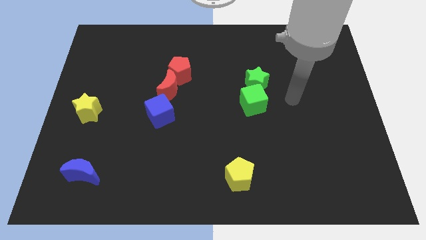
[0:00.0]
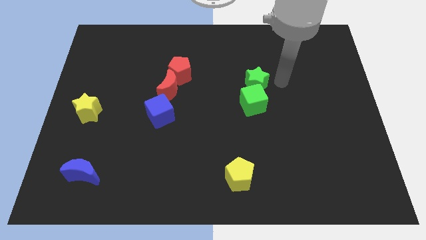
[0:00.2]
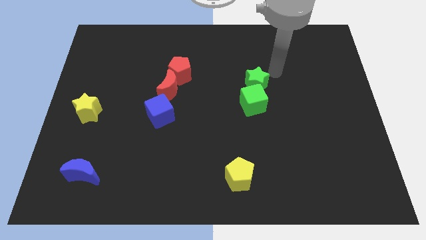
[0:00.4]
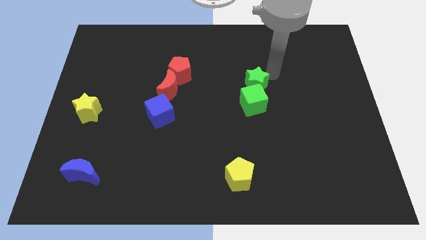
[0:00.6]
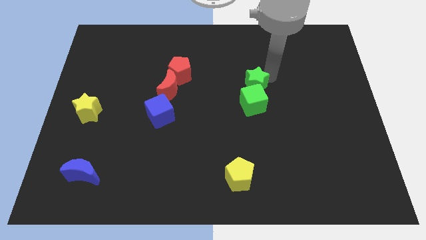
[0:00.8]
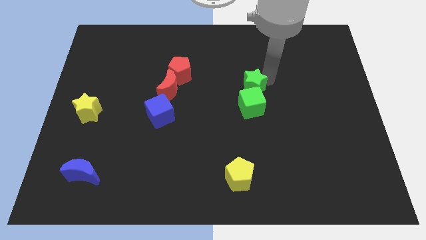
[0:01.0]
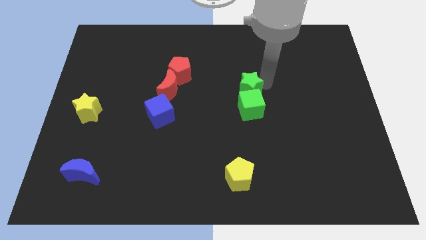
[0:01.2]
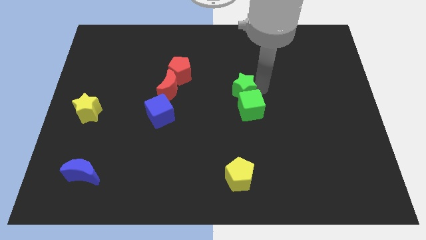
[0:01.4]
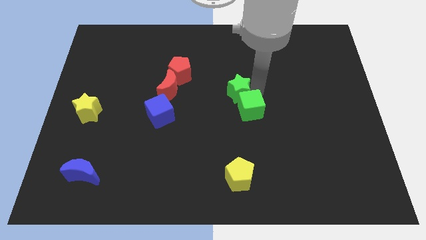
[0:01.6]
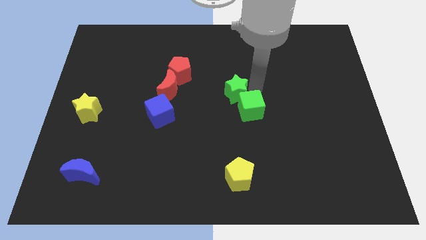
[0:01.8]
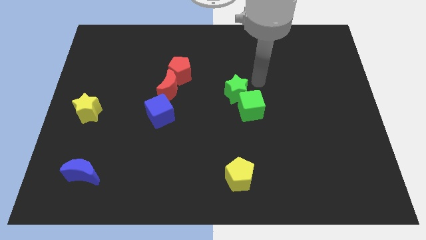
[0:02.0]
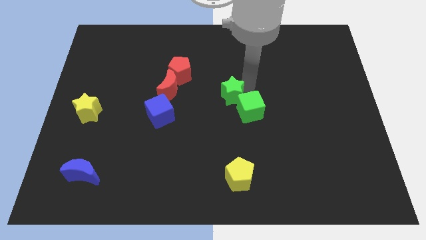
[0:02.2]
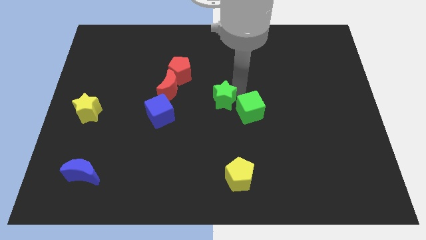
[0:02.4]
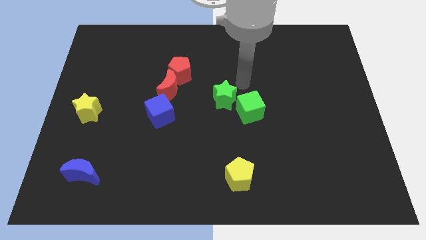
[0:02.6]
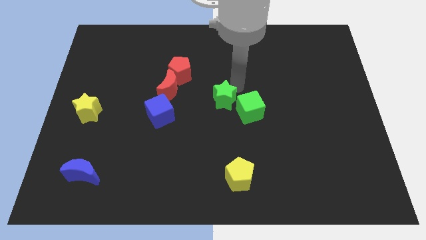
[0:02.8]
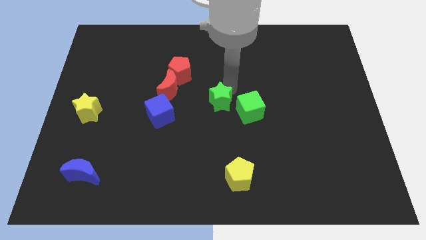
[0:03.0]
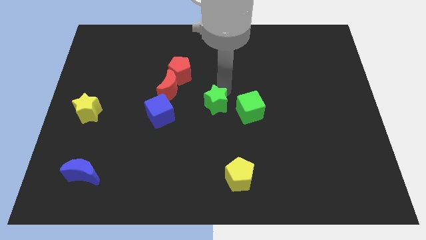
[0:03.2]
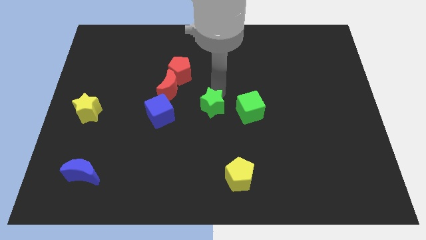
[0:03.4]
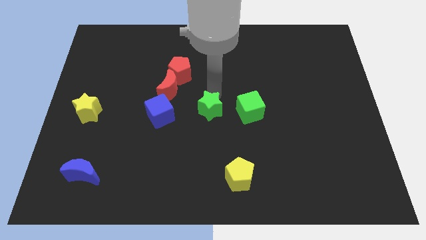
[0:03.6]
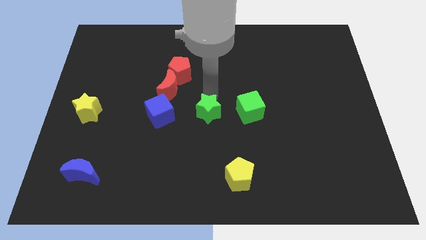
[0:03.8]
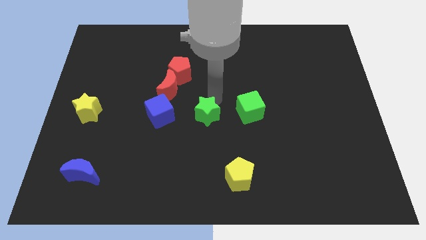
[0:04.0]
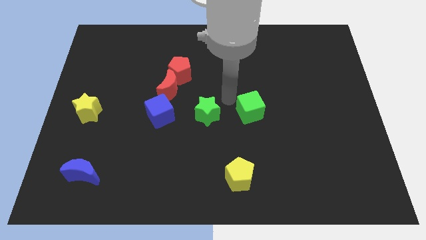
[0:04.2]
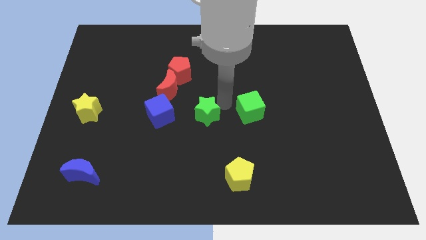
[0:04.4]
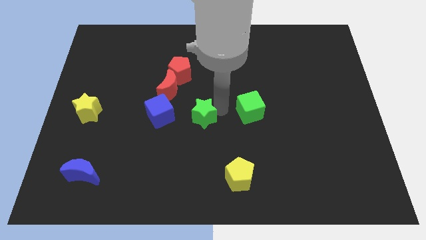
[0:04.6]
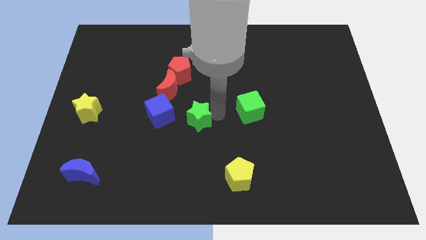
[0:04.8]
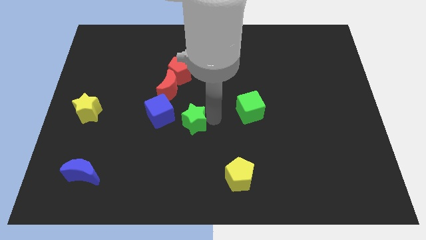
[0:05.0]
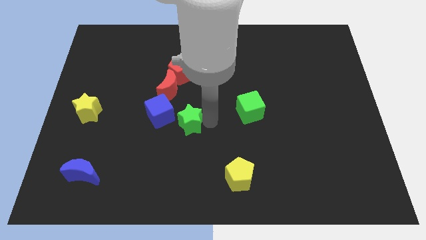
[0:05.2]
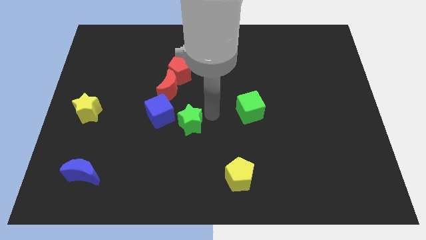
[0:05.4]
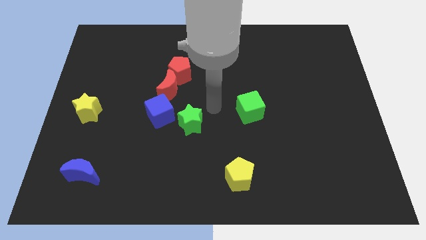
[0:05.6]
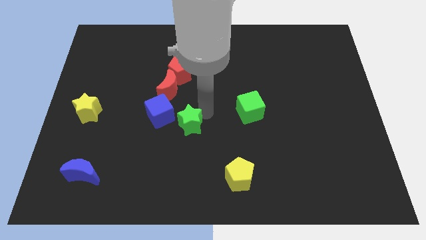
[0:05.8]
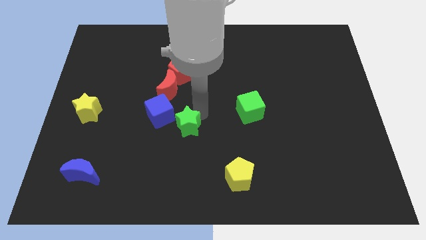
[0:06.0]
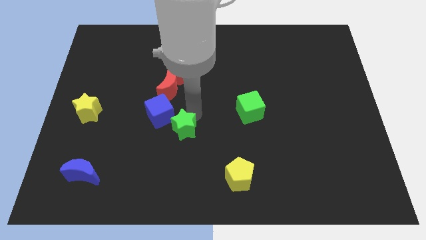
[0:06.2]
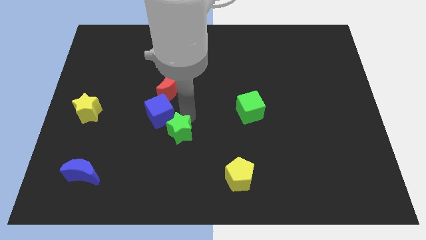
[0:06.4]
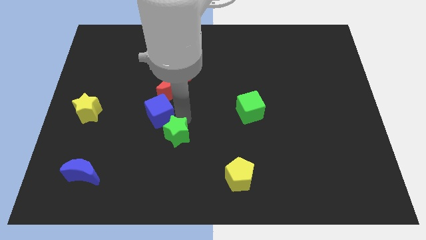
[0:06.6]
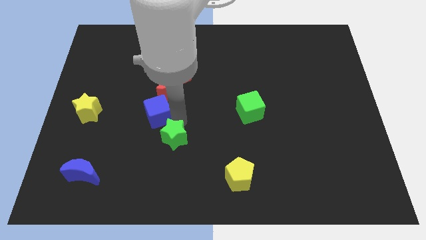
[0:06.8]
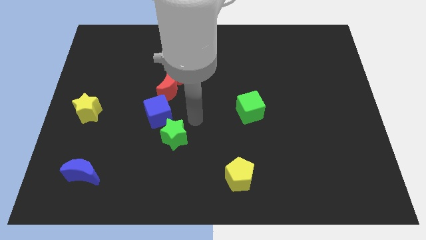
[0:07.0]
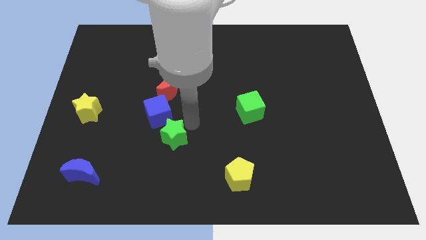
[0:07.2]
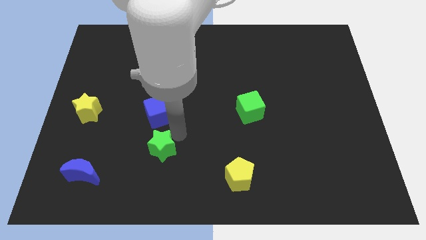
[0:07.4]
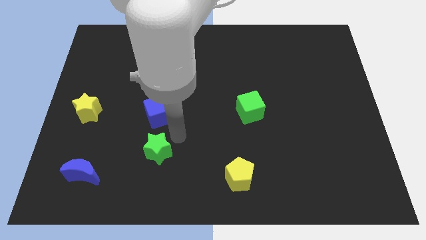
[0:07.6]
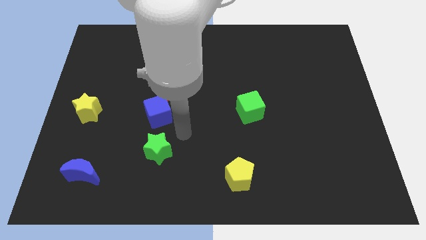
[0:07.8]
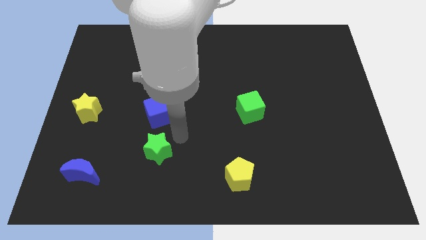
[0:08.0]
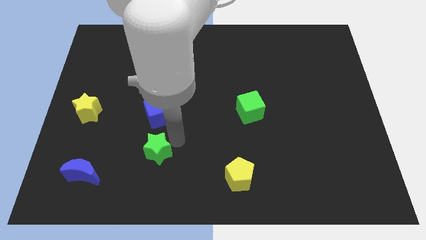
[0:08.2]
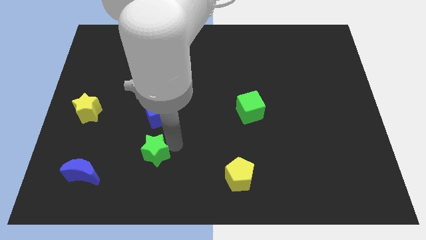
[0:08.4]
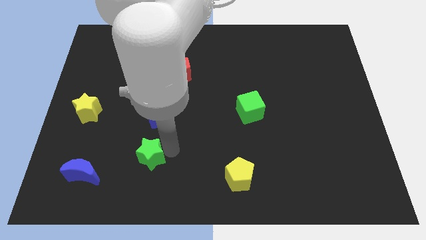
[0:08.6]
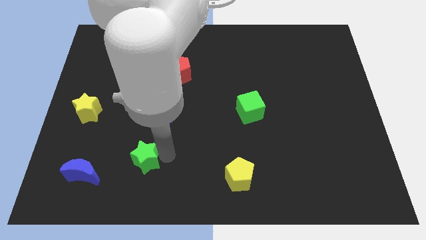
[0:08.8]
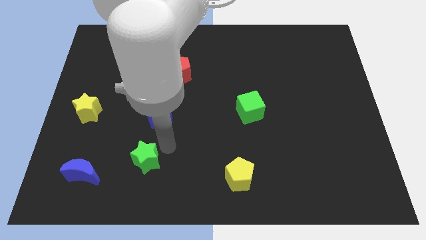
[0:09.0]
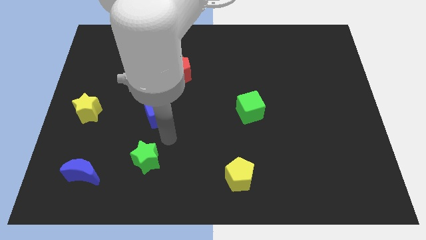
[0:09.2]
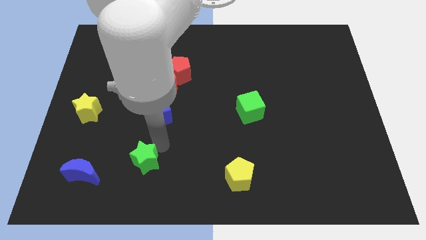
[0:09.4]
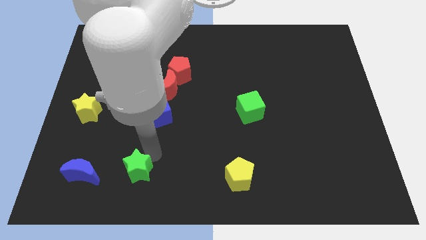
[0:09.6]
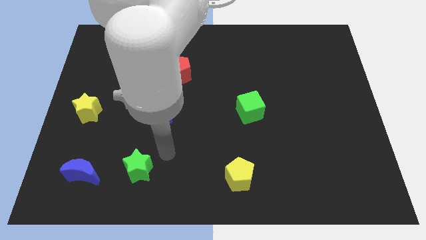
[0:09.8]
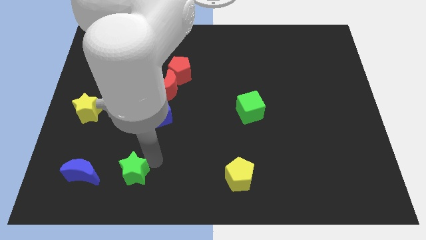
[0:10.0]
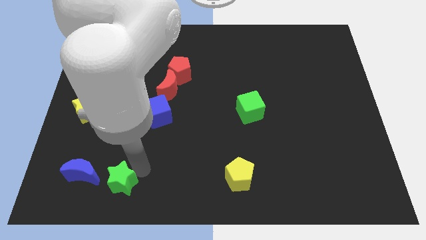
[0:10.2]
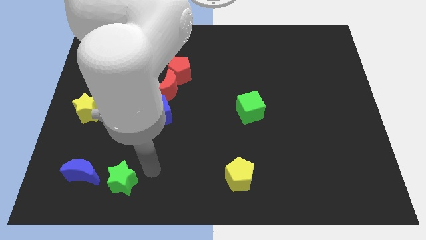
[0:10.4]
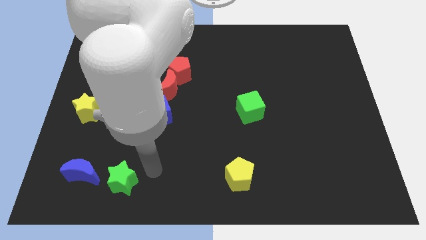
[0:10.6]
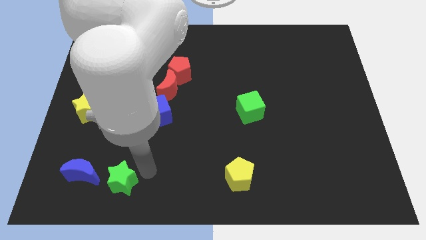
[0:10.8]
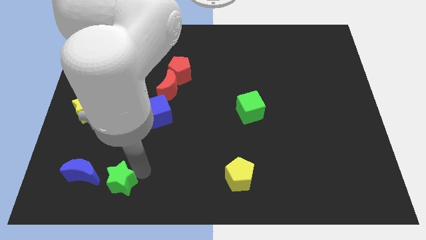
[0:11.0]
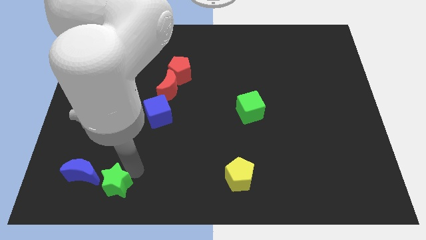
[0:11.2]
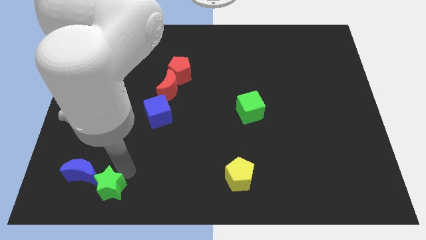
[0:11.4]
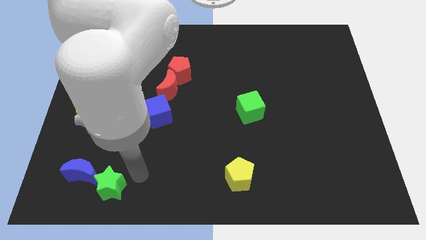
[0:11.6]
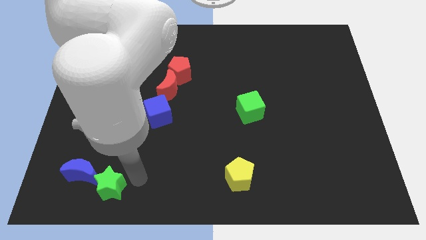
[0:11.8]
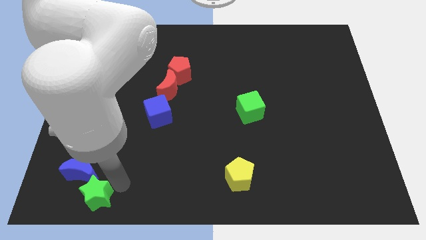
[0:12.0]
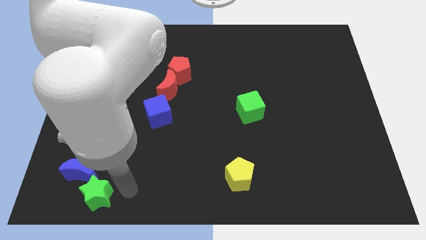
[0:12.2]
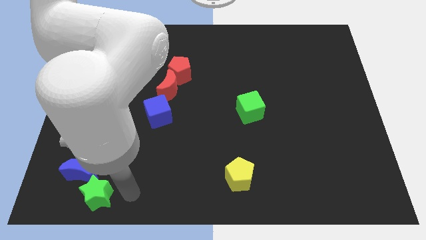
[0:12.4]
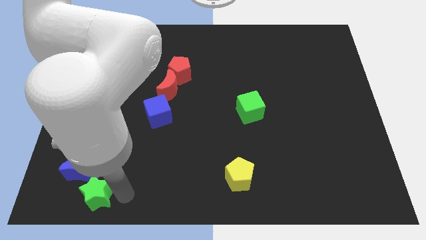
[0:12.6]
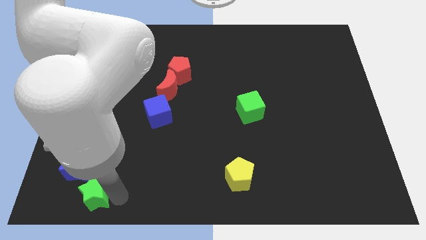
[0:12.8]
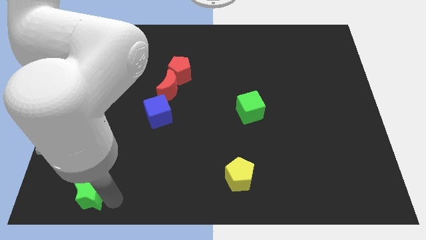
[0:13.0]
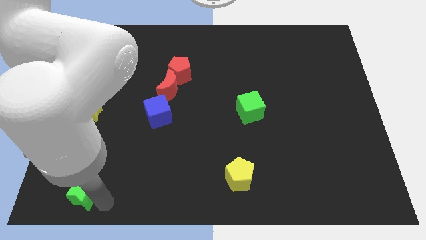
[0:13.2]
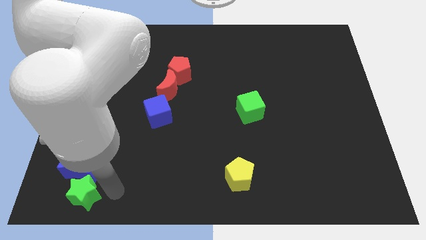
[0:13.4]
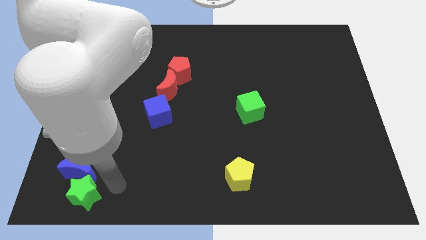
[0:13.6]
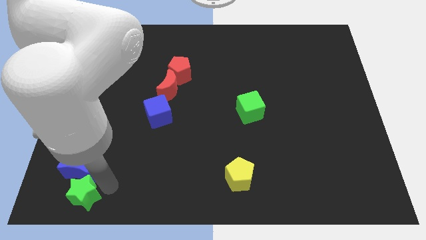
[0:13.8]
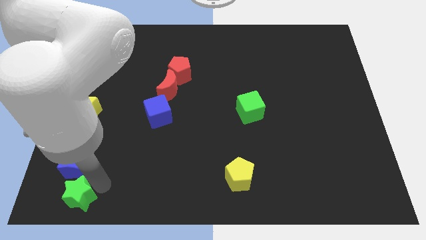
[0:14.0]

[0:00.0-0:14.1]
move the green star to the bottom left corner
